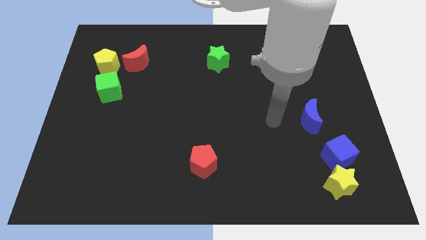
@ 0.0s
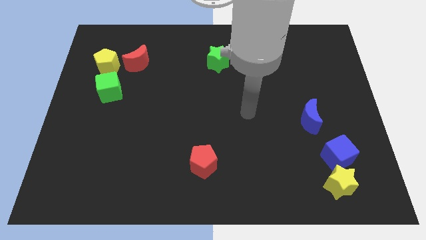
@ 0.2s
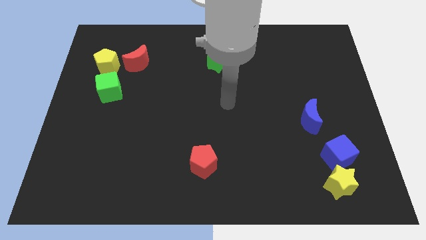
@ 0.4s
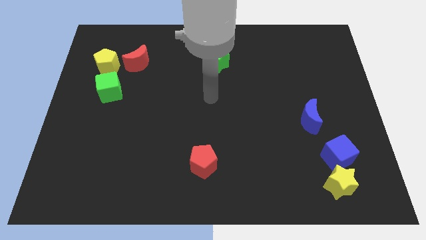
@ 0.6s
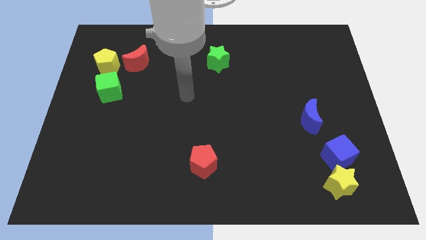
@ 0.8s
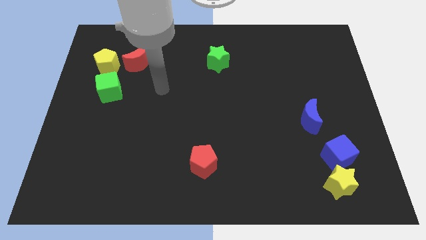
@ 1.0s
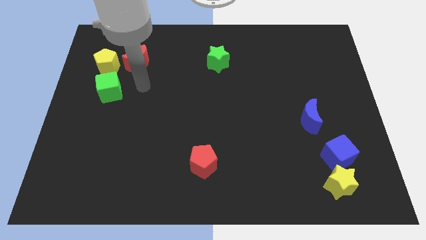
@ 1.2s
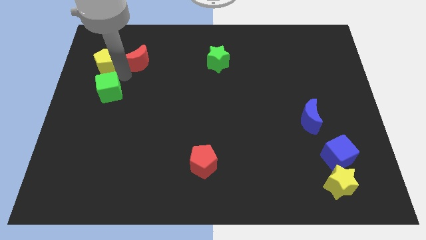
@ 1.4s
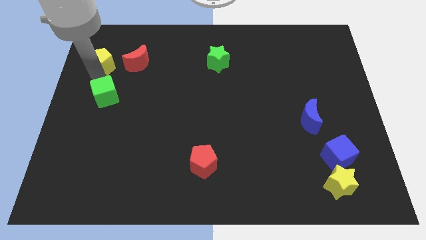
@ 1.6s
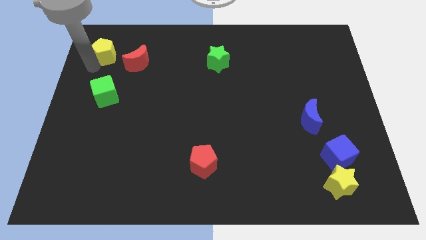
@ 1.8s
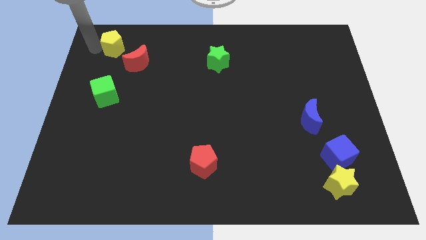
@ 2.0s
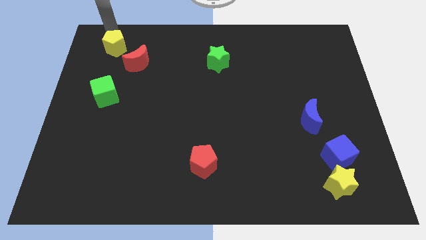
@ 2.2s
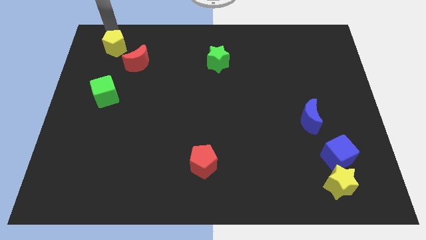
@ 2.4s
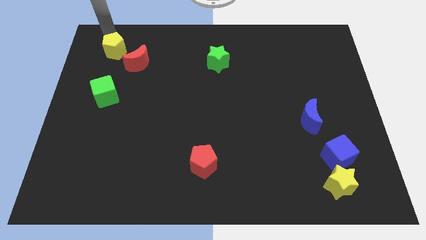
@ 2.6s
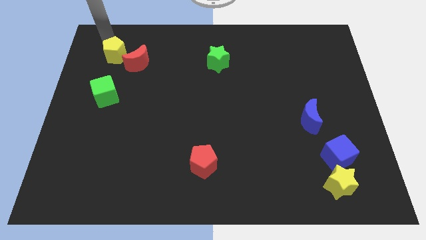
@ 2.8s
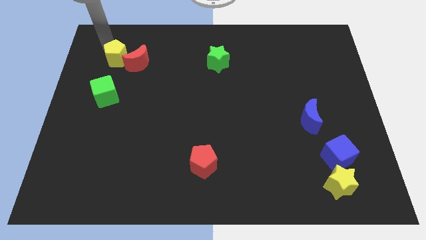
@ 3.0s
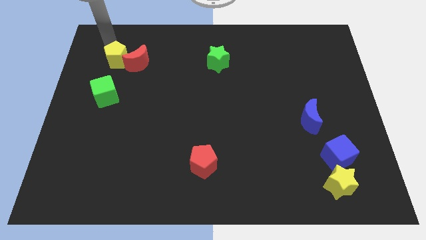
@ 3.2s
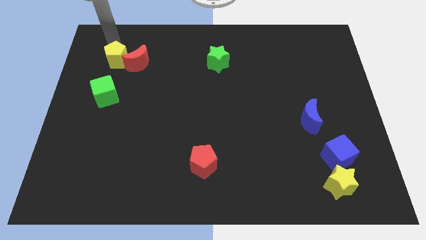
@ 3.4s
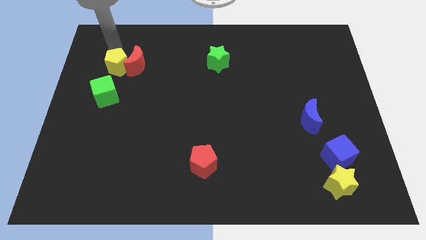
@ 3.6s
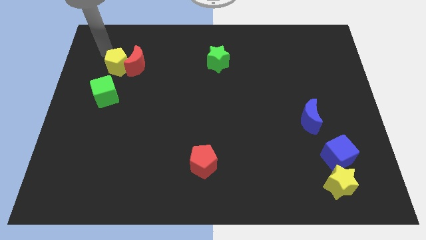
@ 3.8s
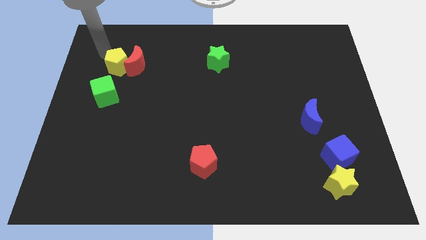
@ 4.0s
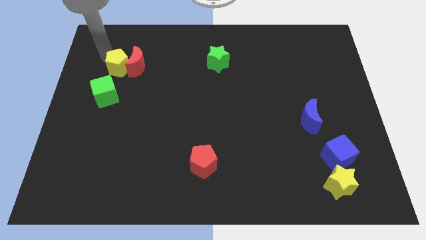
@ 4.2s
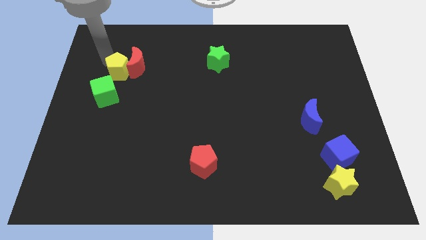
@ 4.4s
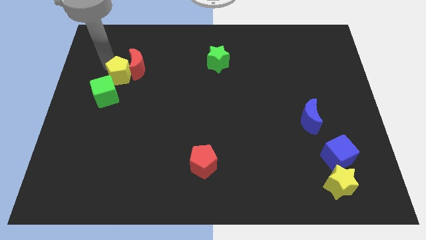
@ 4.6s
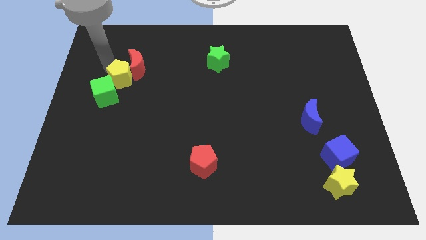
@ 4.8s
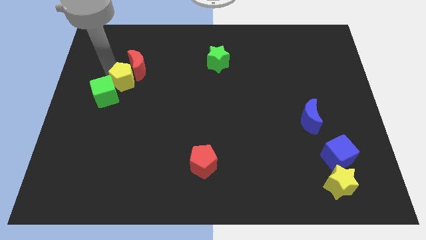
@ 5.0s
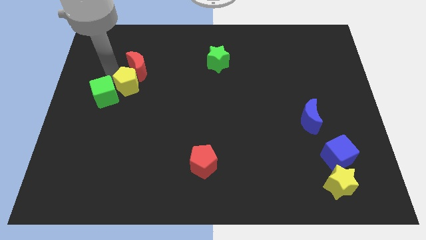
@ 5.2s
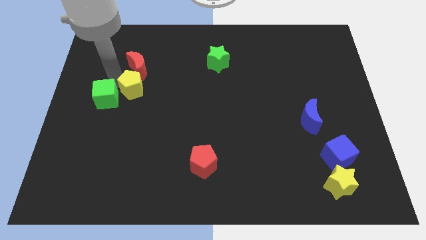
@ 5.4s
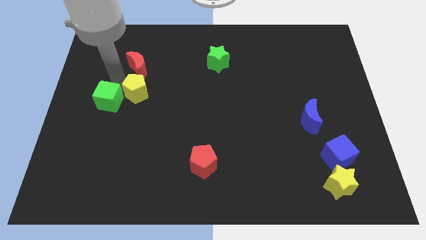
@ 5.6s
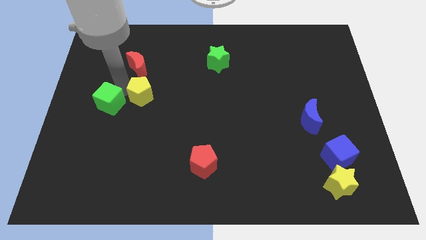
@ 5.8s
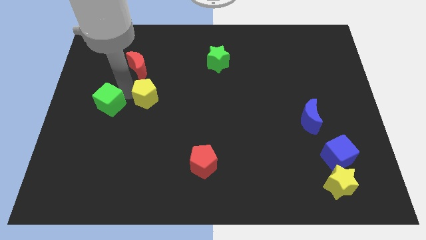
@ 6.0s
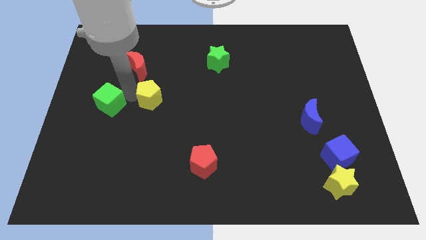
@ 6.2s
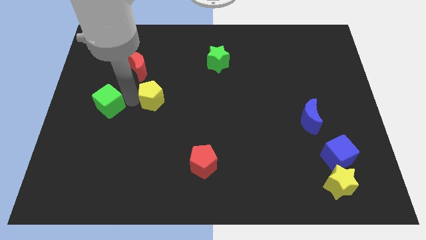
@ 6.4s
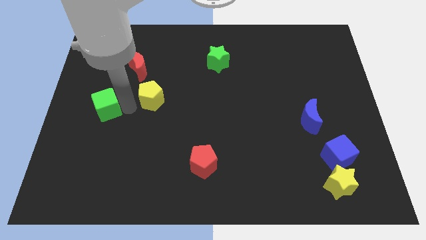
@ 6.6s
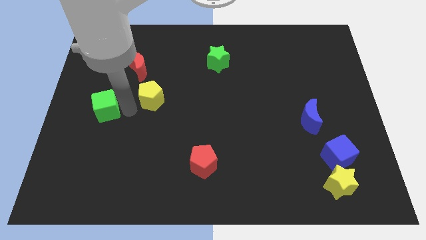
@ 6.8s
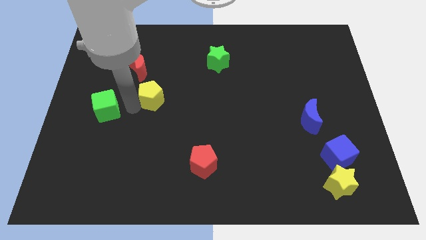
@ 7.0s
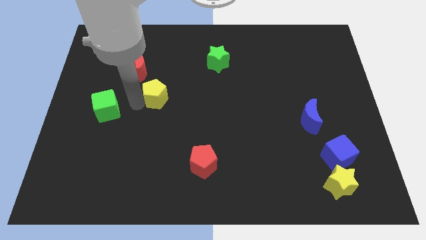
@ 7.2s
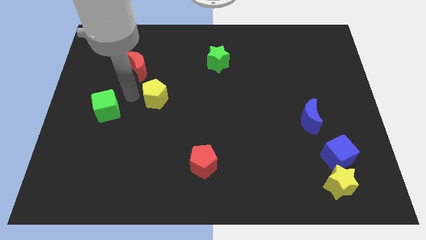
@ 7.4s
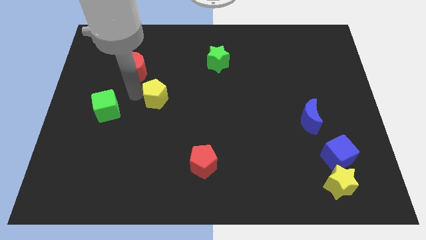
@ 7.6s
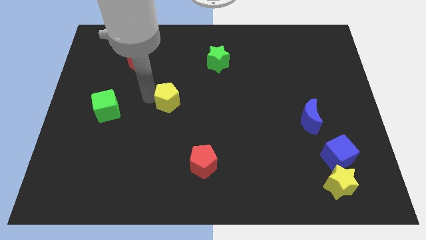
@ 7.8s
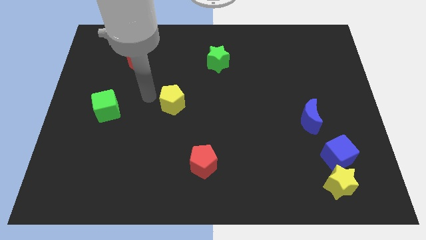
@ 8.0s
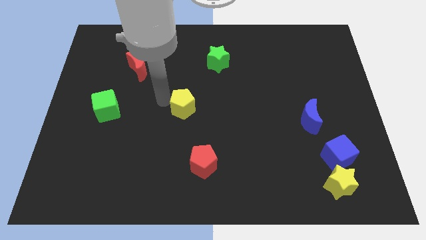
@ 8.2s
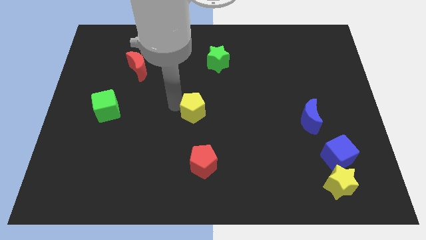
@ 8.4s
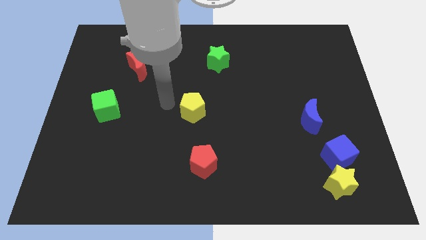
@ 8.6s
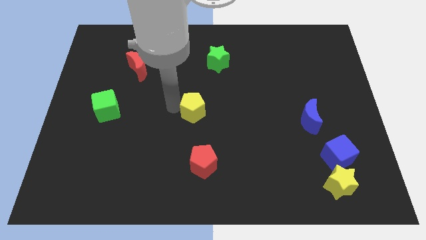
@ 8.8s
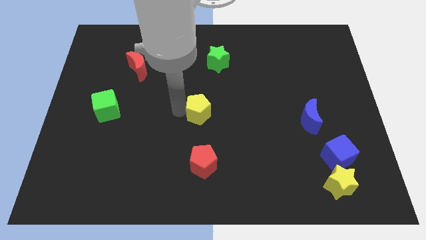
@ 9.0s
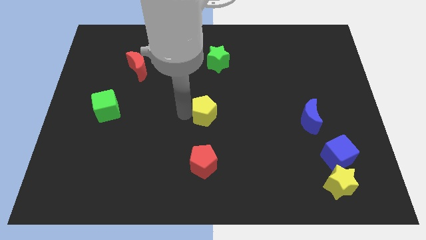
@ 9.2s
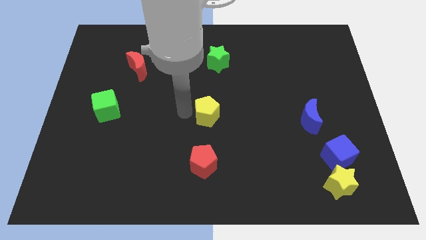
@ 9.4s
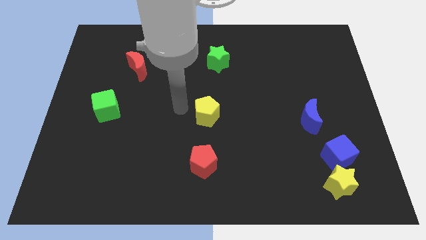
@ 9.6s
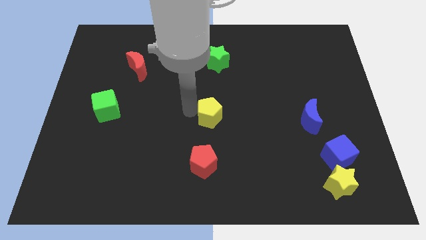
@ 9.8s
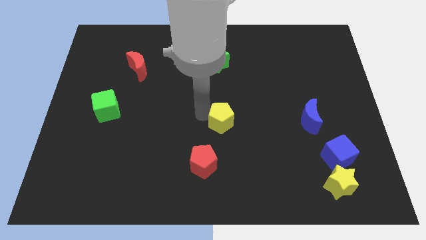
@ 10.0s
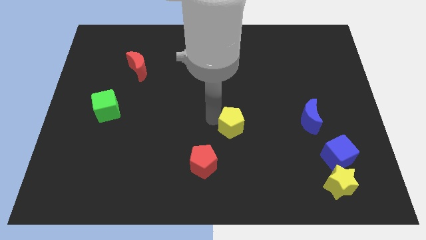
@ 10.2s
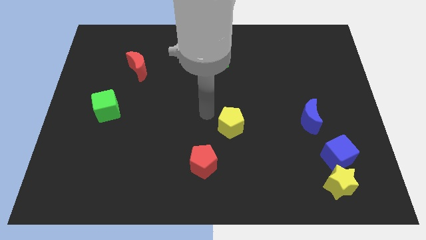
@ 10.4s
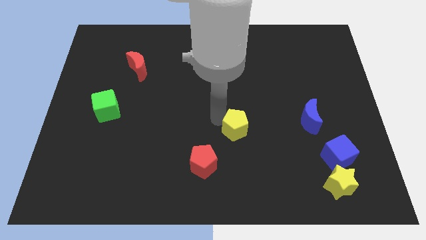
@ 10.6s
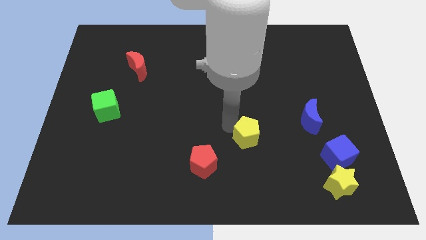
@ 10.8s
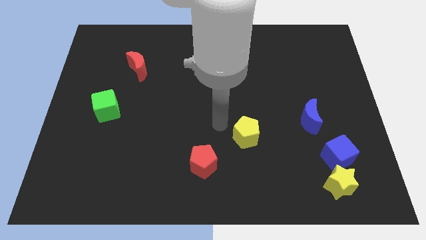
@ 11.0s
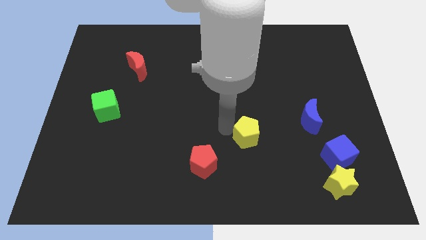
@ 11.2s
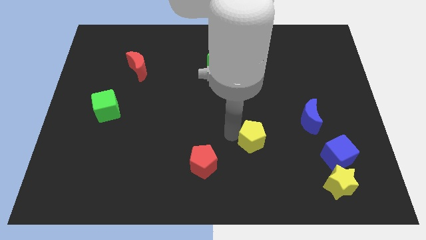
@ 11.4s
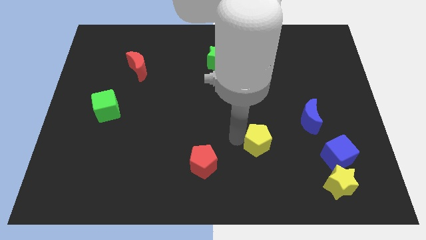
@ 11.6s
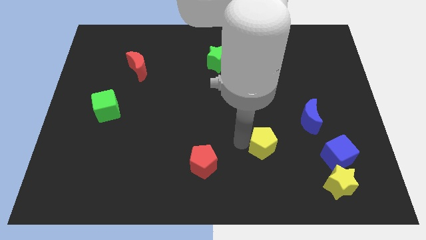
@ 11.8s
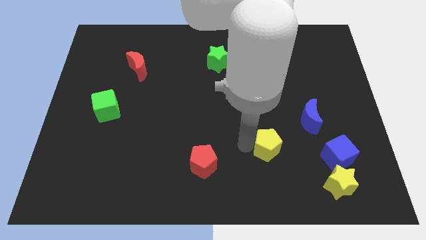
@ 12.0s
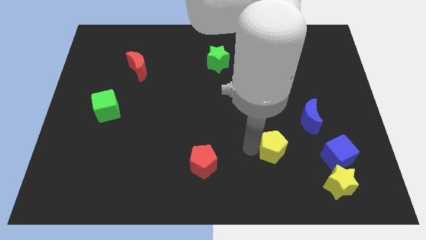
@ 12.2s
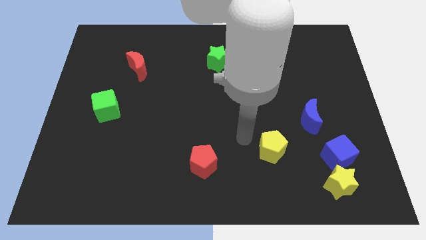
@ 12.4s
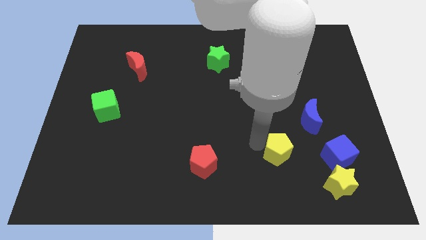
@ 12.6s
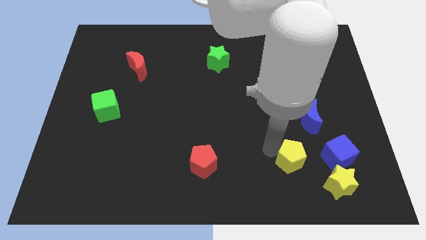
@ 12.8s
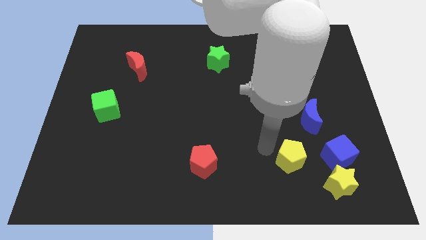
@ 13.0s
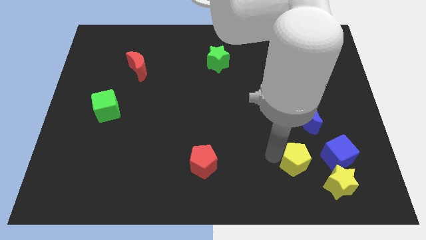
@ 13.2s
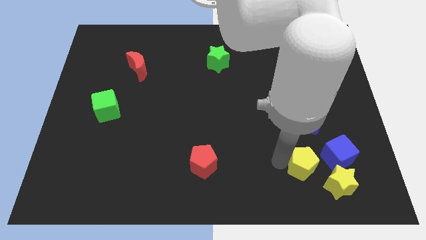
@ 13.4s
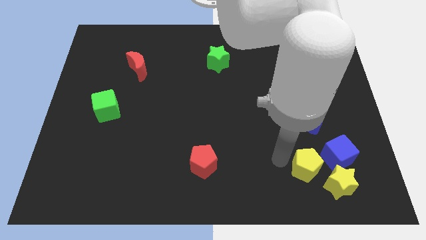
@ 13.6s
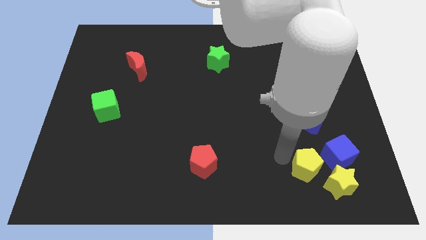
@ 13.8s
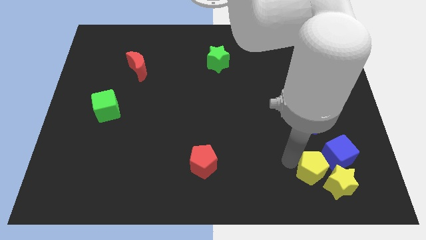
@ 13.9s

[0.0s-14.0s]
move the yellow pentagon to the yellow star
